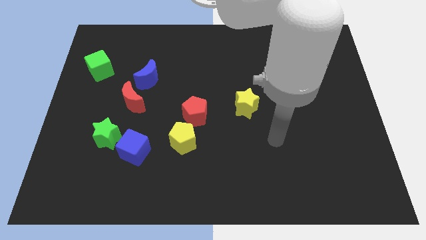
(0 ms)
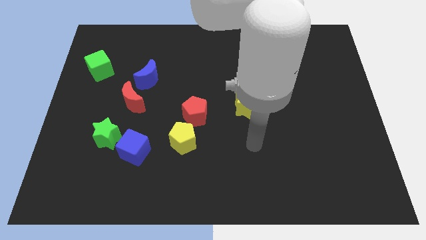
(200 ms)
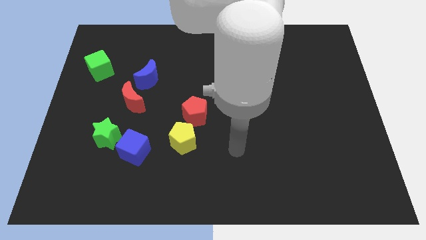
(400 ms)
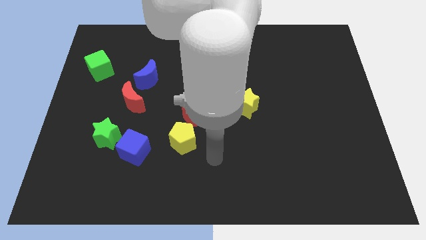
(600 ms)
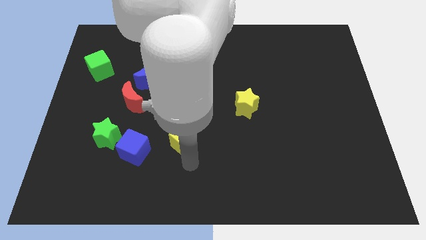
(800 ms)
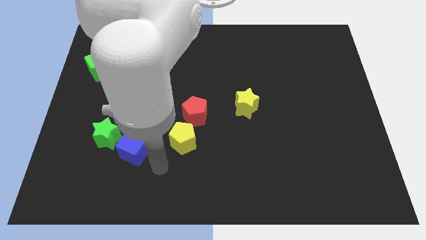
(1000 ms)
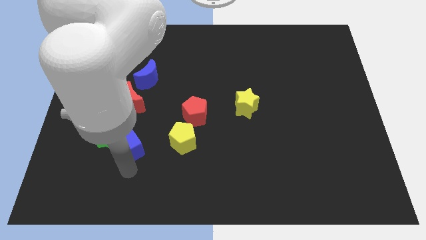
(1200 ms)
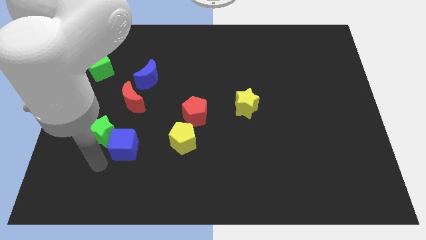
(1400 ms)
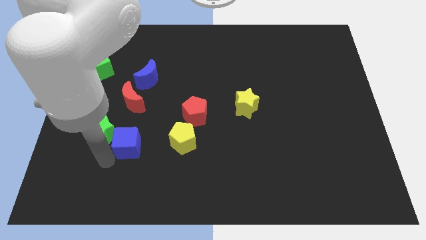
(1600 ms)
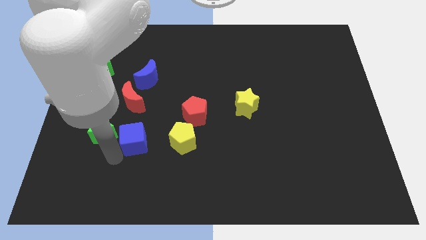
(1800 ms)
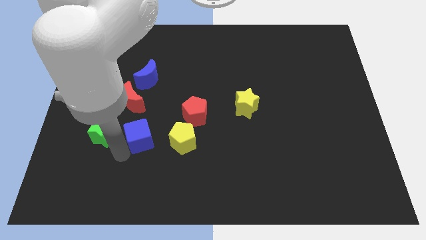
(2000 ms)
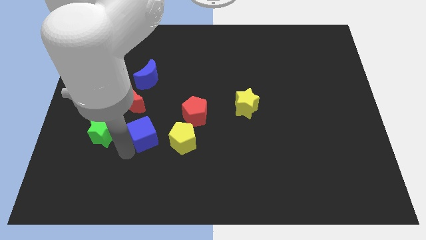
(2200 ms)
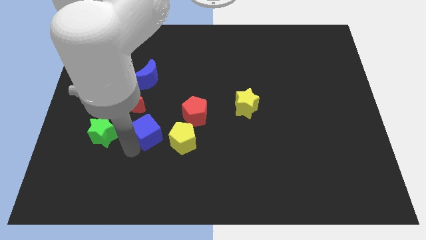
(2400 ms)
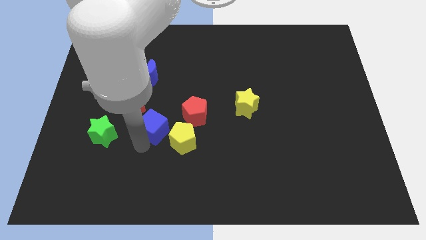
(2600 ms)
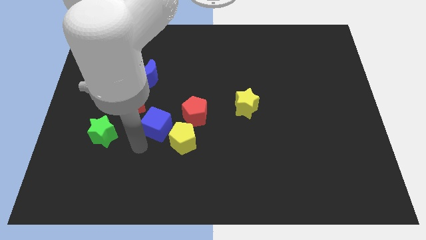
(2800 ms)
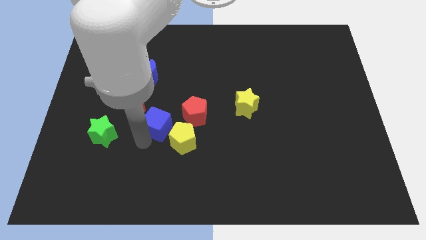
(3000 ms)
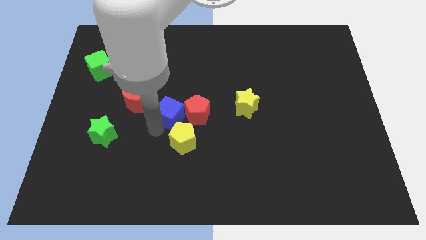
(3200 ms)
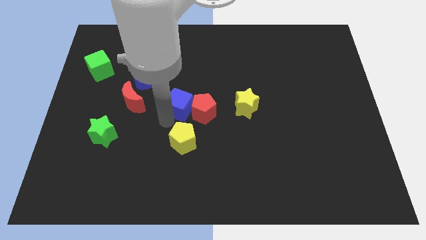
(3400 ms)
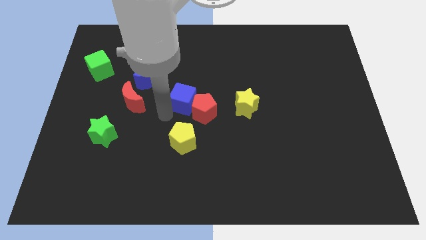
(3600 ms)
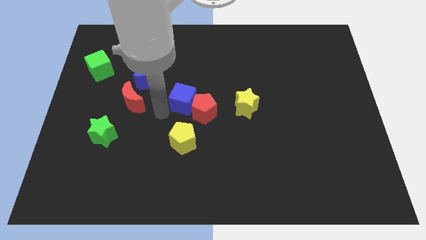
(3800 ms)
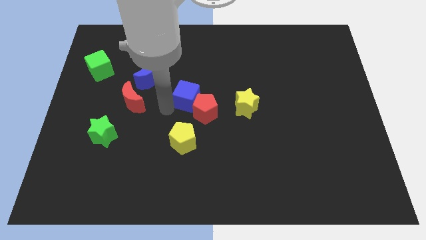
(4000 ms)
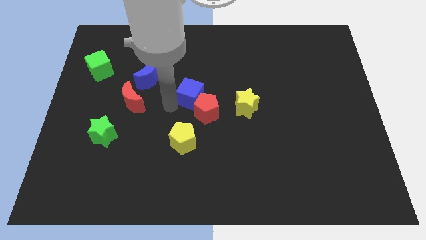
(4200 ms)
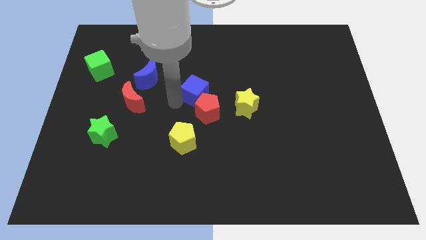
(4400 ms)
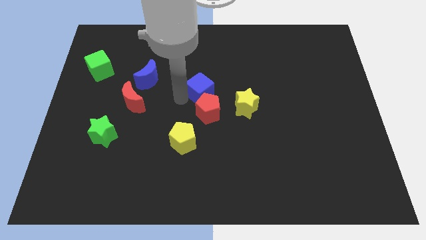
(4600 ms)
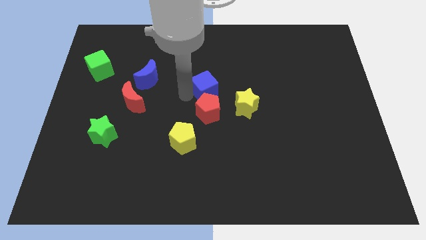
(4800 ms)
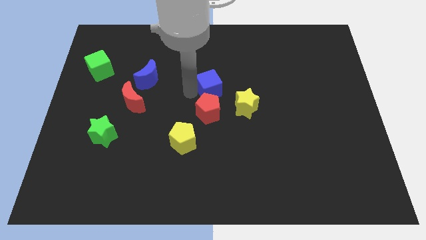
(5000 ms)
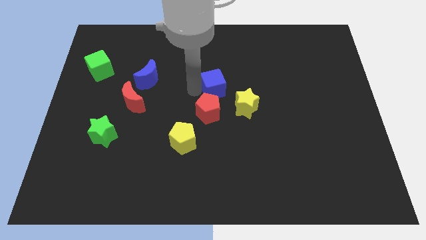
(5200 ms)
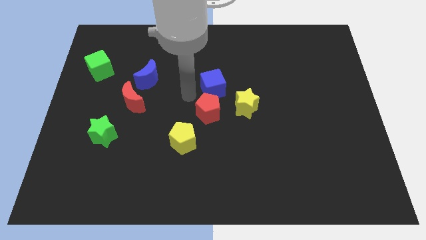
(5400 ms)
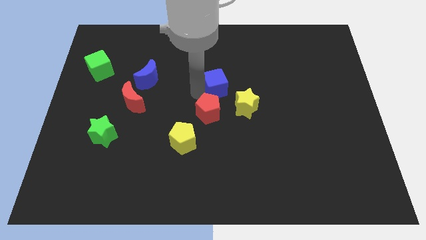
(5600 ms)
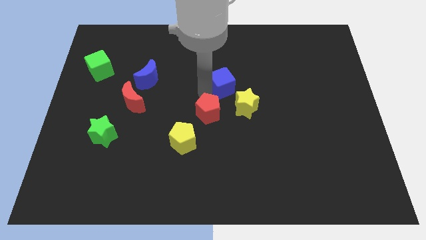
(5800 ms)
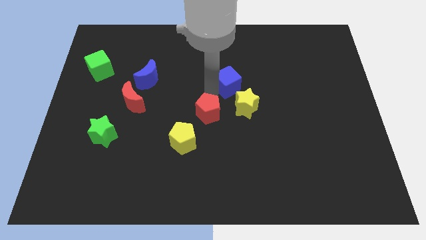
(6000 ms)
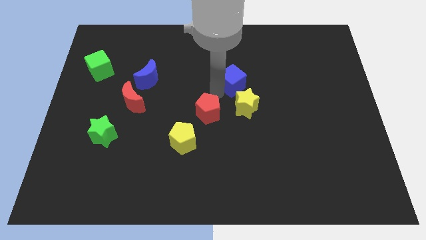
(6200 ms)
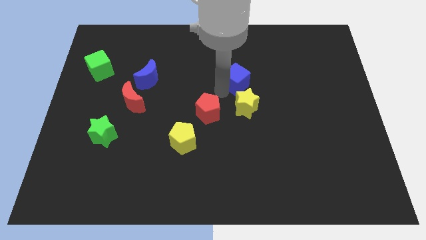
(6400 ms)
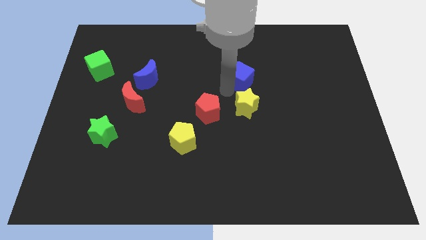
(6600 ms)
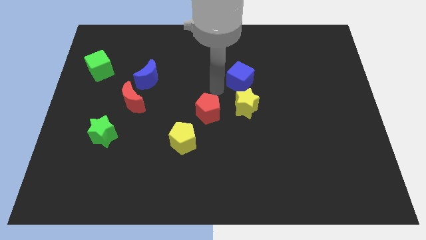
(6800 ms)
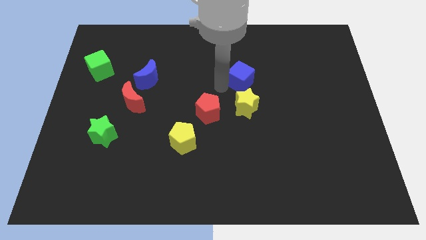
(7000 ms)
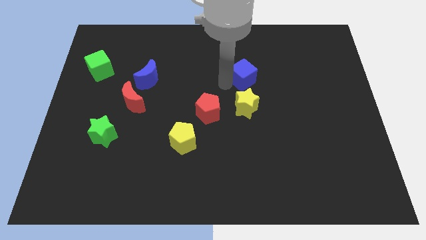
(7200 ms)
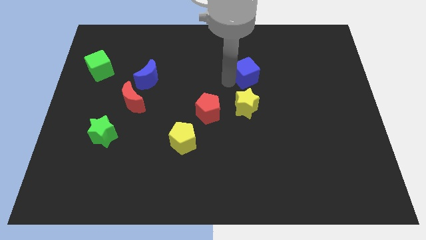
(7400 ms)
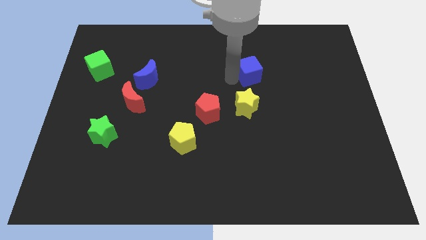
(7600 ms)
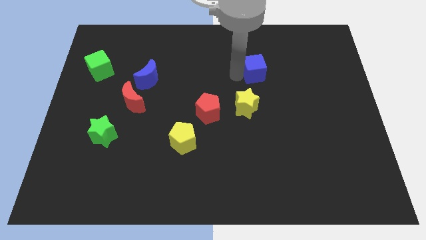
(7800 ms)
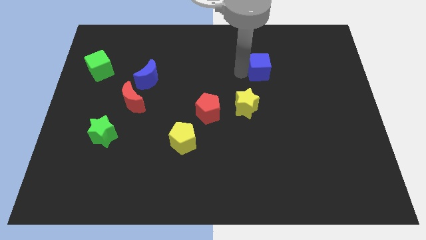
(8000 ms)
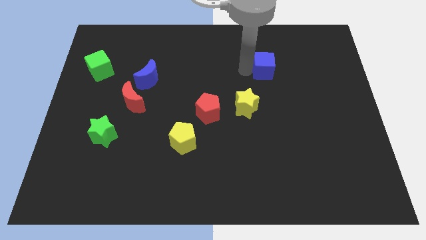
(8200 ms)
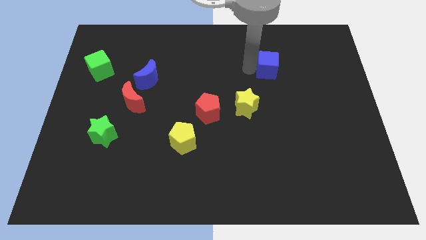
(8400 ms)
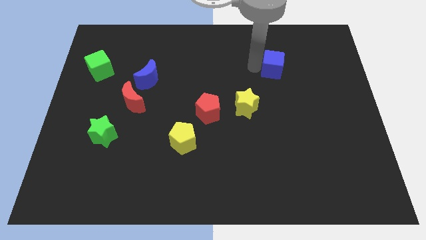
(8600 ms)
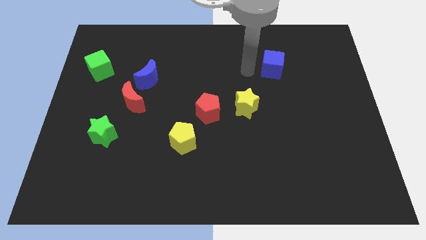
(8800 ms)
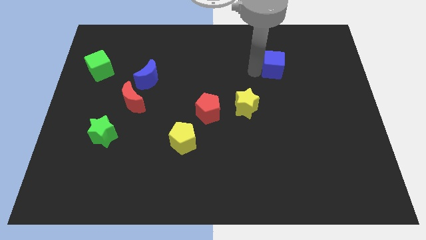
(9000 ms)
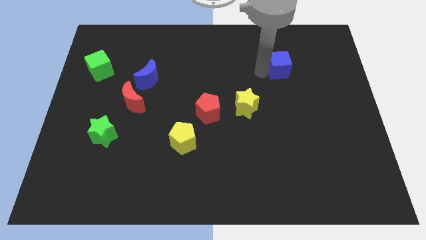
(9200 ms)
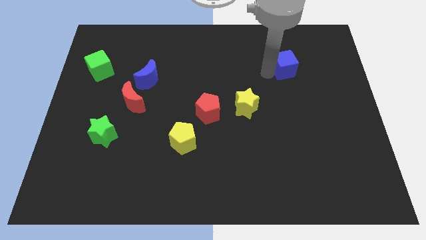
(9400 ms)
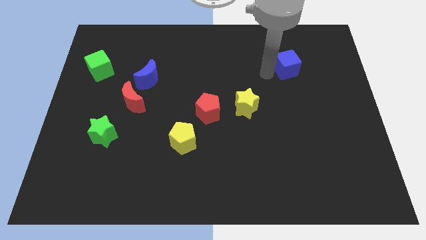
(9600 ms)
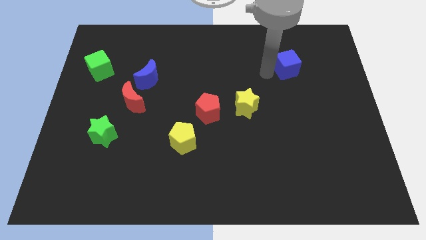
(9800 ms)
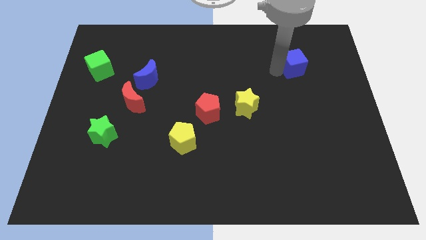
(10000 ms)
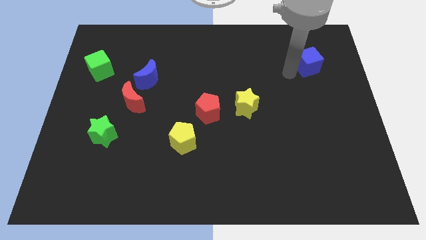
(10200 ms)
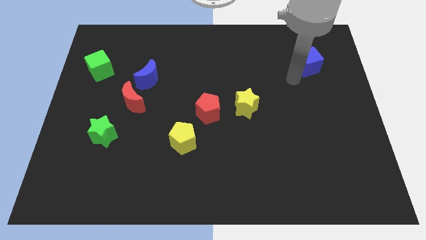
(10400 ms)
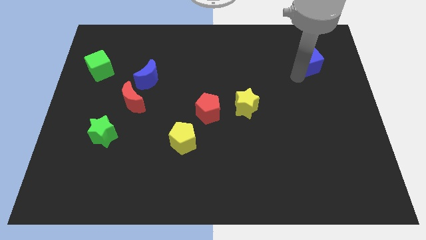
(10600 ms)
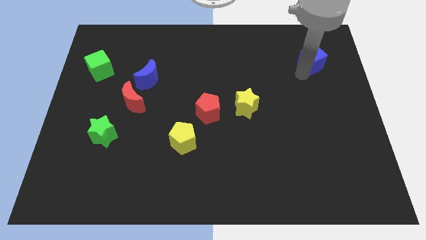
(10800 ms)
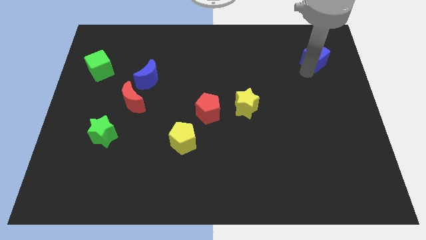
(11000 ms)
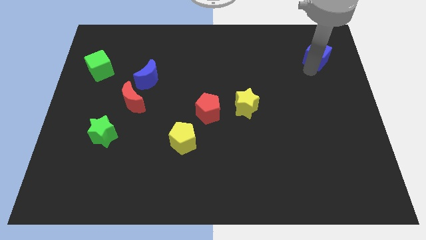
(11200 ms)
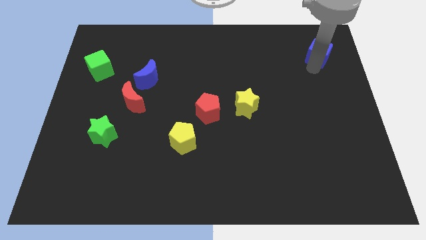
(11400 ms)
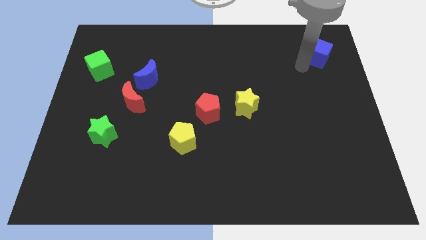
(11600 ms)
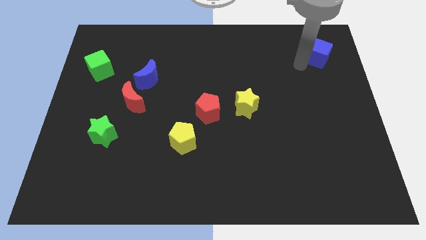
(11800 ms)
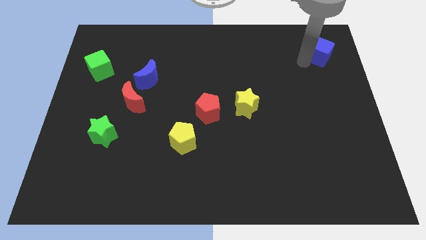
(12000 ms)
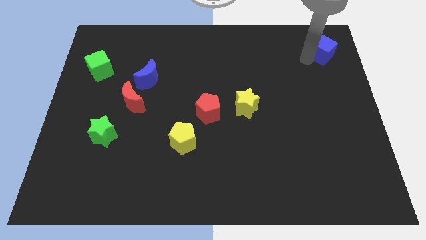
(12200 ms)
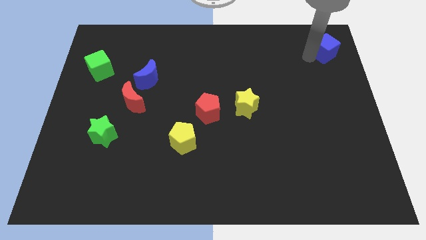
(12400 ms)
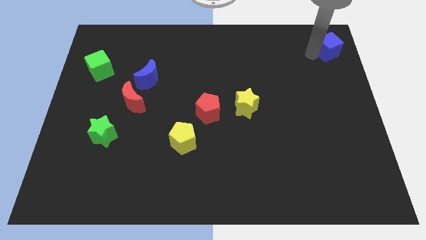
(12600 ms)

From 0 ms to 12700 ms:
move the blue cube to the top right
